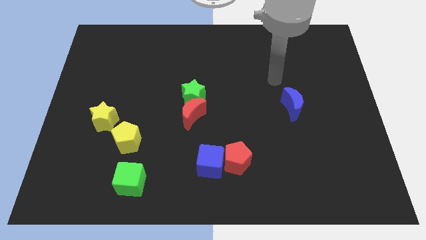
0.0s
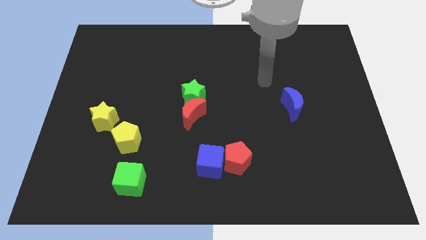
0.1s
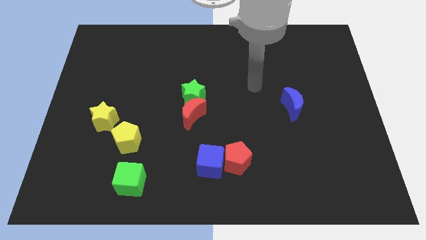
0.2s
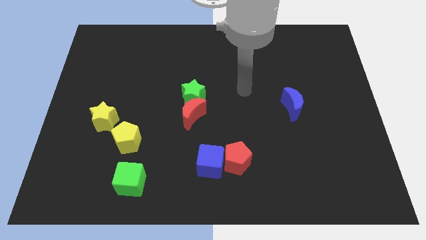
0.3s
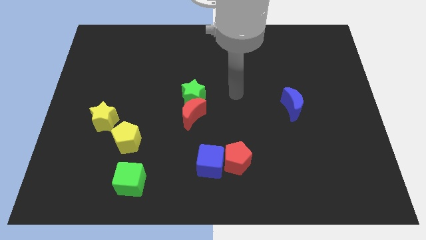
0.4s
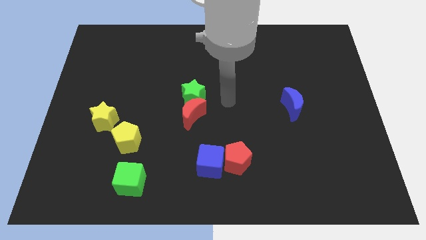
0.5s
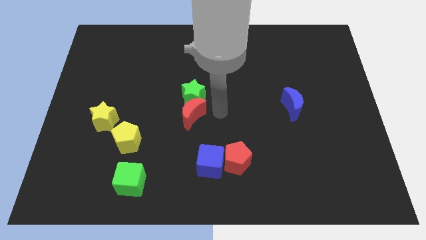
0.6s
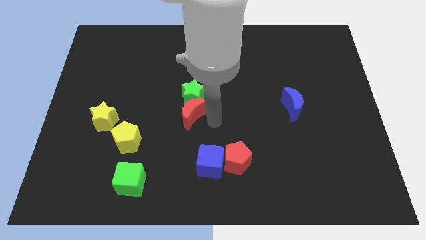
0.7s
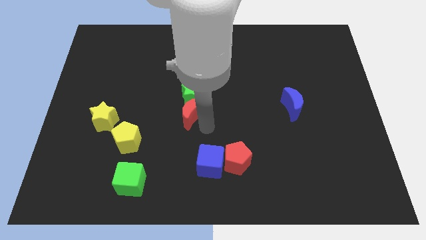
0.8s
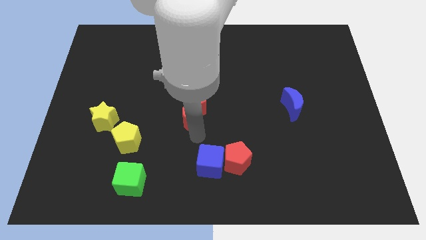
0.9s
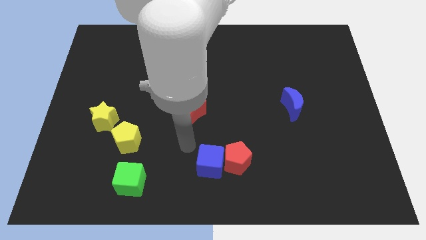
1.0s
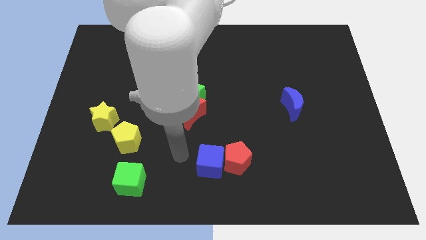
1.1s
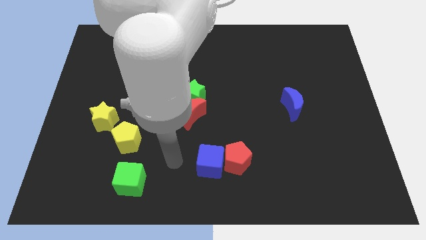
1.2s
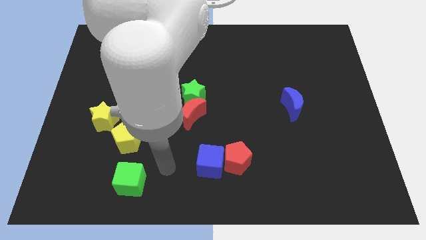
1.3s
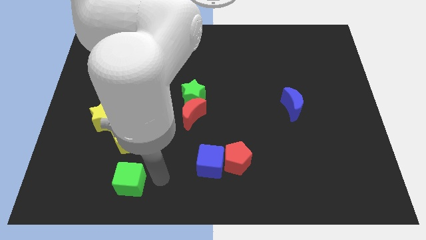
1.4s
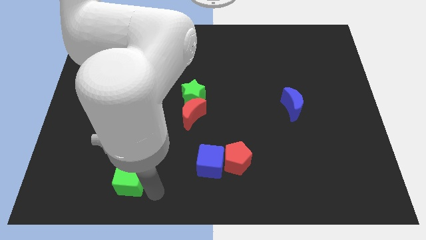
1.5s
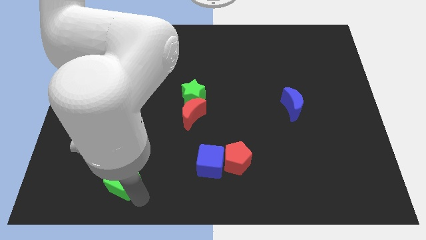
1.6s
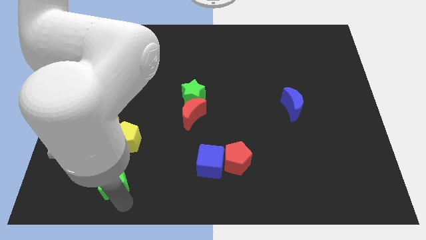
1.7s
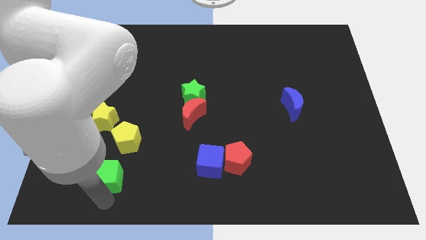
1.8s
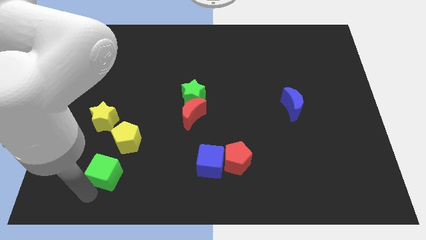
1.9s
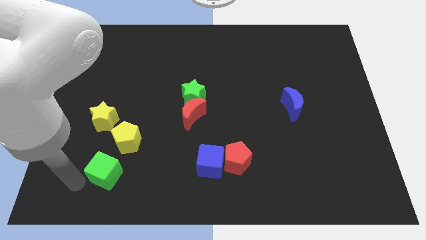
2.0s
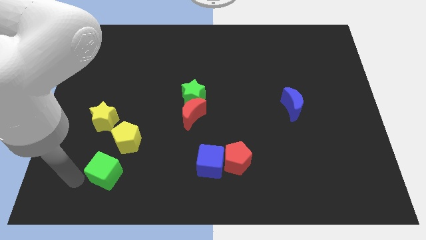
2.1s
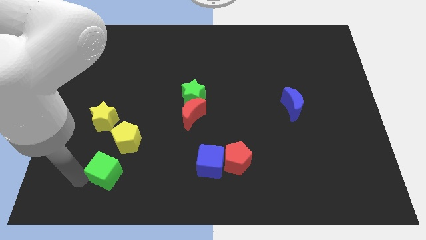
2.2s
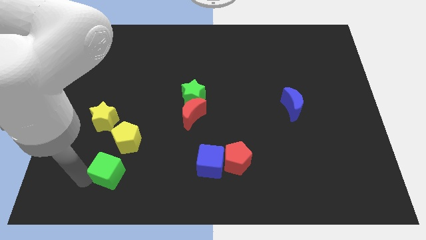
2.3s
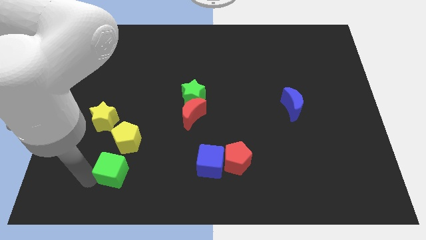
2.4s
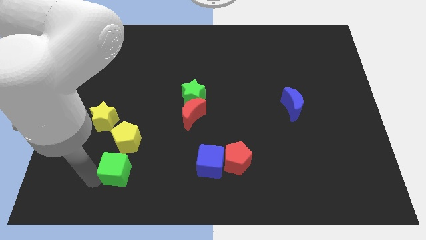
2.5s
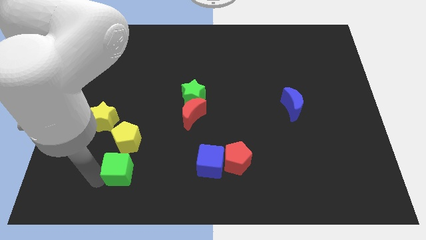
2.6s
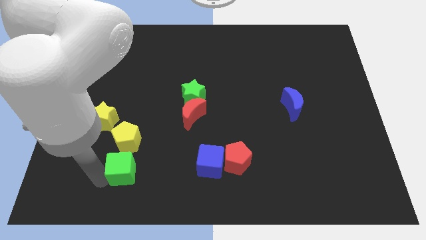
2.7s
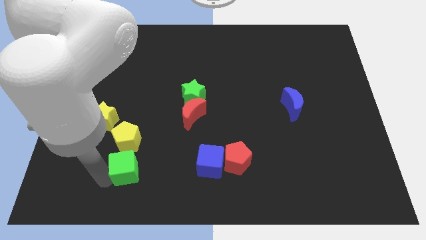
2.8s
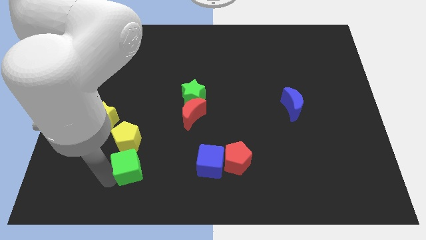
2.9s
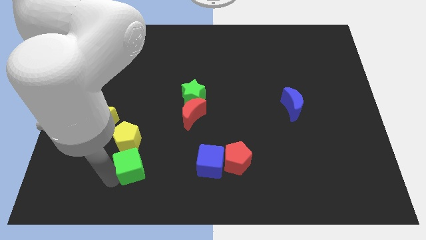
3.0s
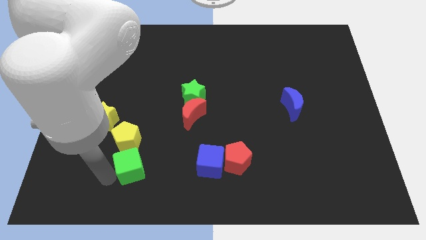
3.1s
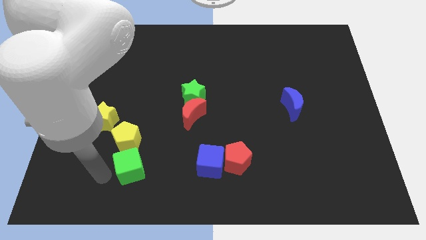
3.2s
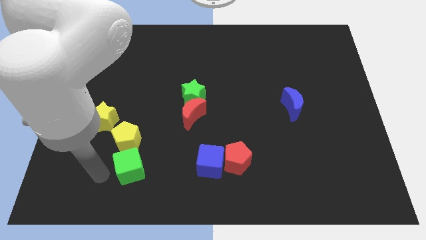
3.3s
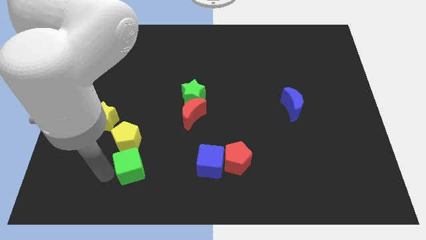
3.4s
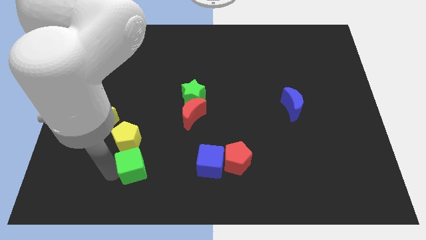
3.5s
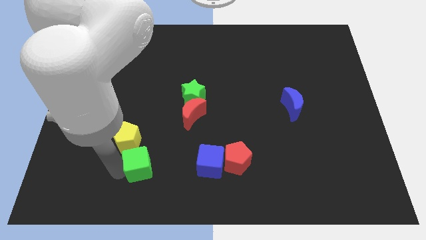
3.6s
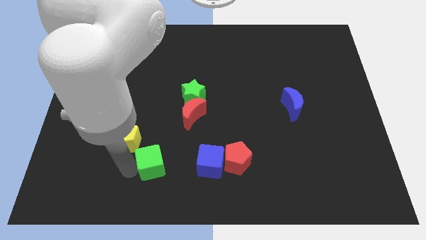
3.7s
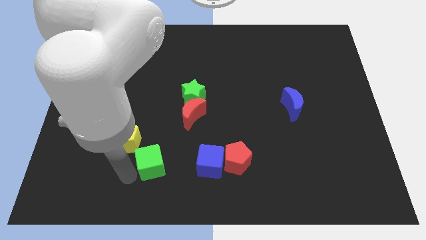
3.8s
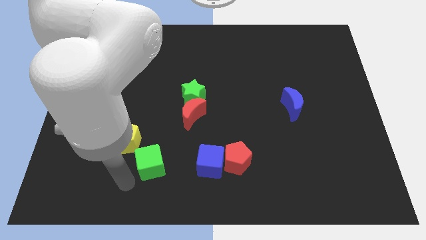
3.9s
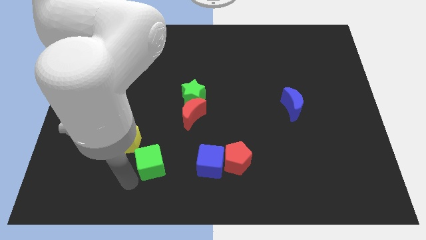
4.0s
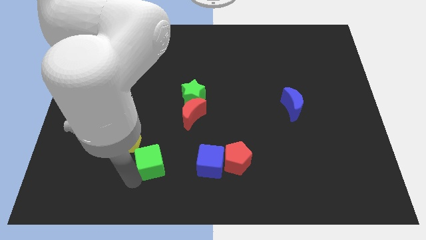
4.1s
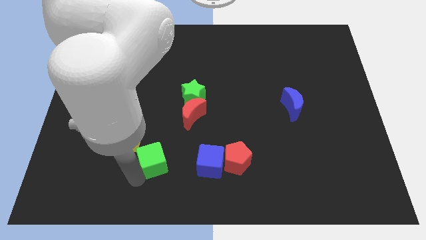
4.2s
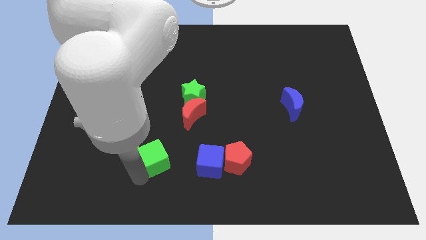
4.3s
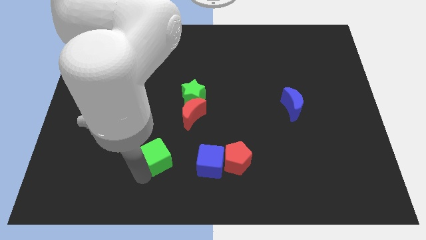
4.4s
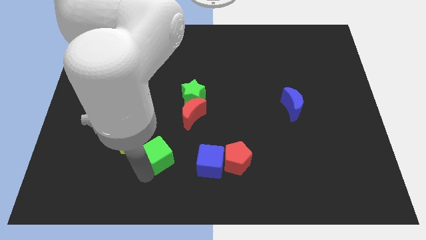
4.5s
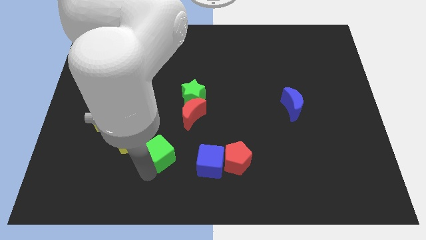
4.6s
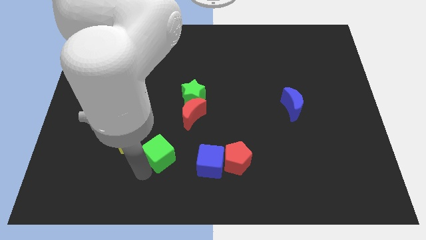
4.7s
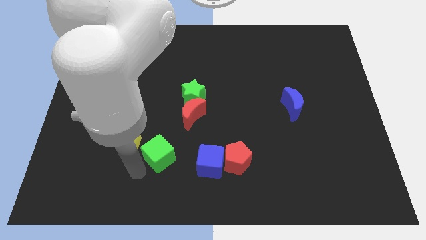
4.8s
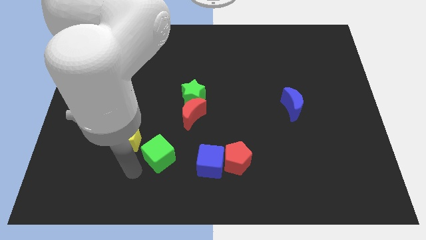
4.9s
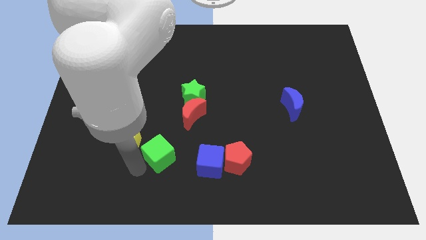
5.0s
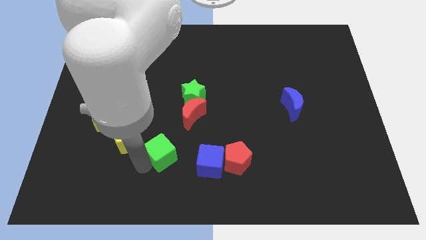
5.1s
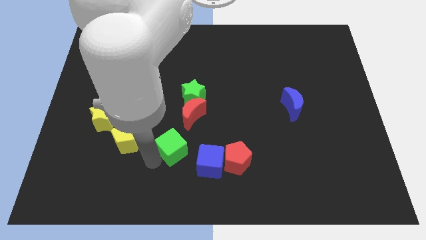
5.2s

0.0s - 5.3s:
slide the green cube to the bottom side of the green star

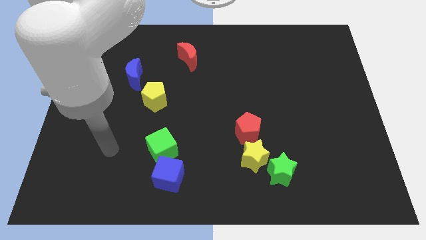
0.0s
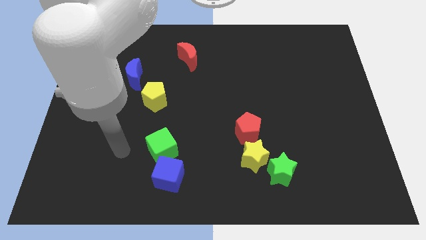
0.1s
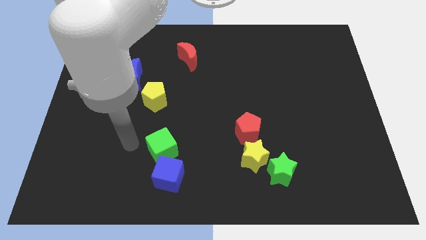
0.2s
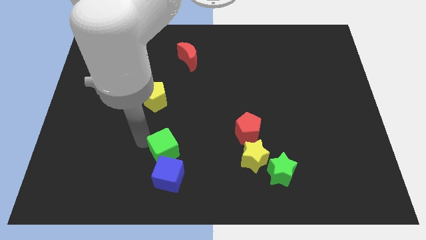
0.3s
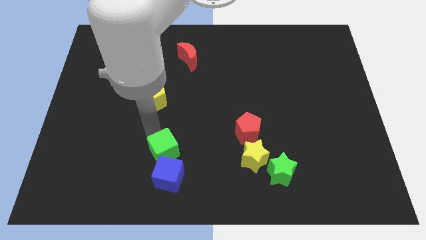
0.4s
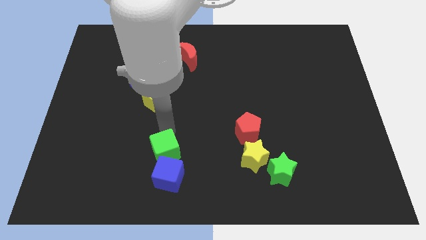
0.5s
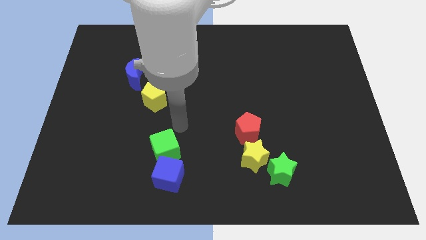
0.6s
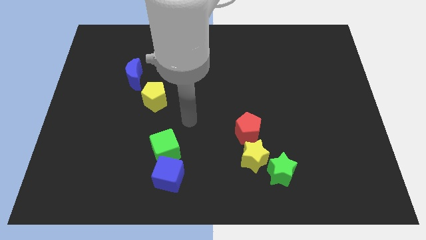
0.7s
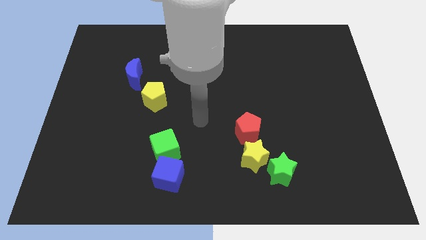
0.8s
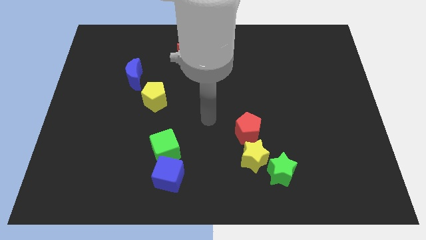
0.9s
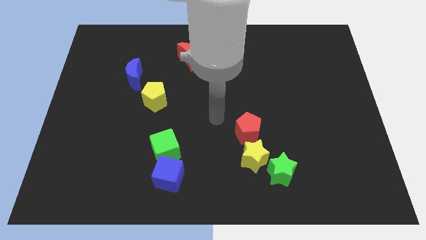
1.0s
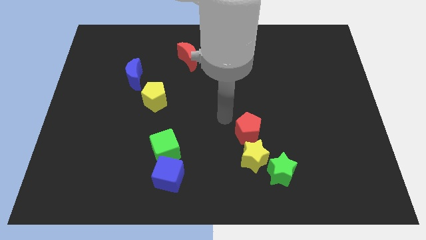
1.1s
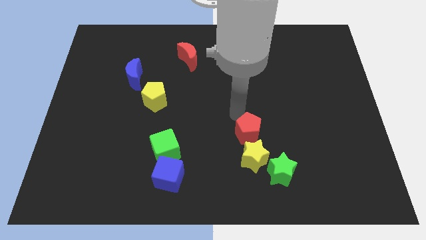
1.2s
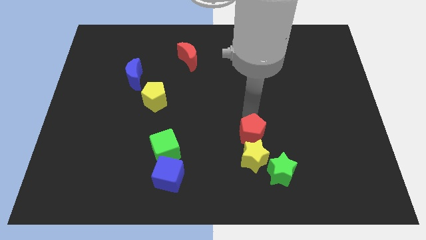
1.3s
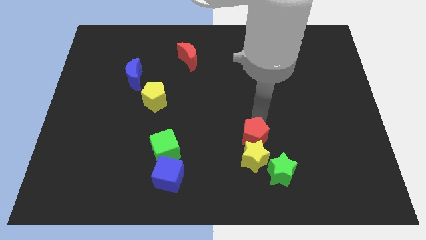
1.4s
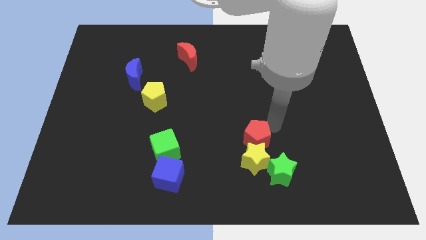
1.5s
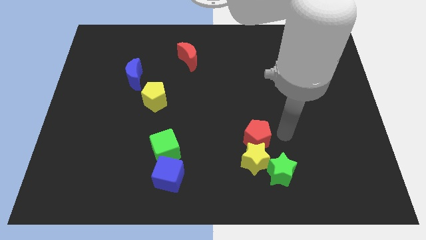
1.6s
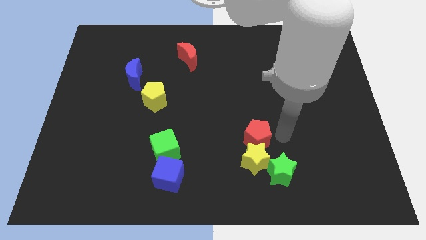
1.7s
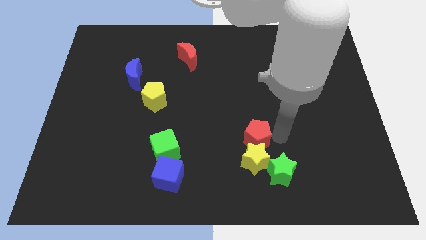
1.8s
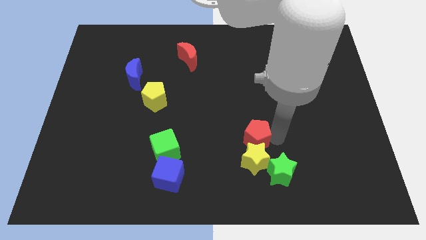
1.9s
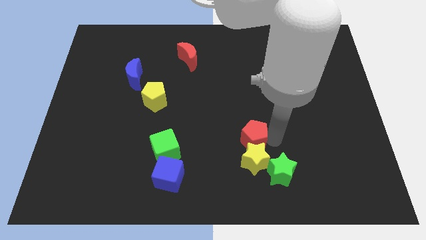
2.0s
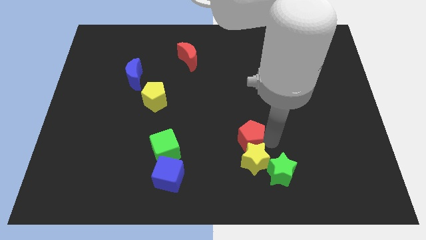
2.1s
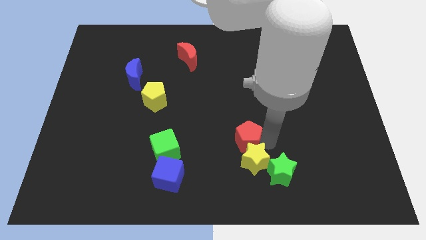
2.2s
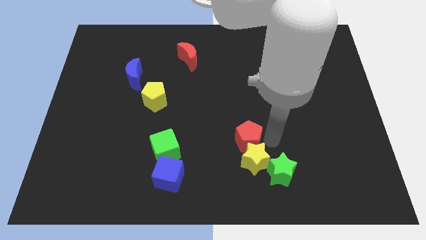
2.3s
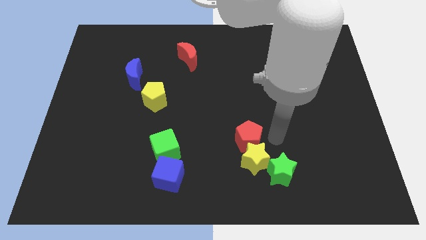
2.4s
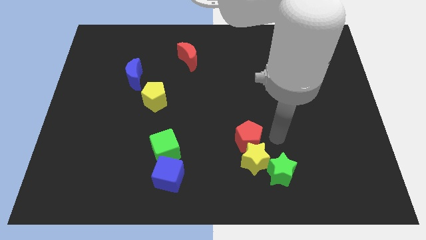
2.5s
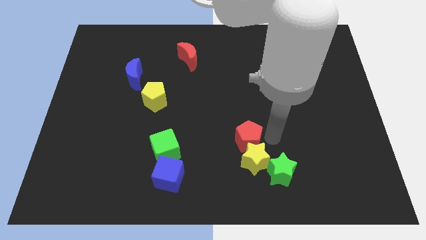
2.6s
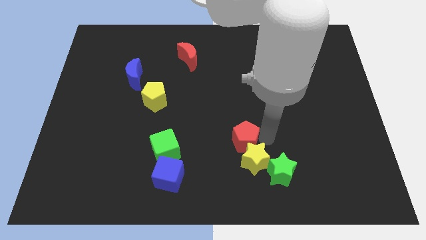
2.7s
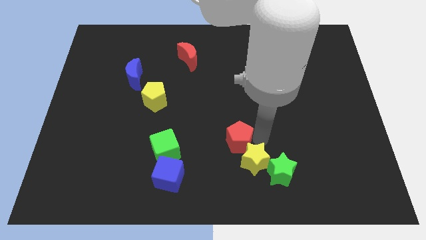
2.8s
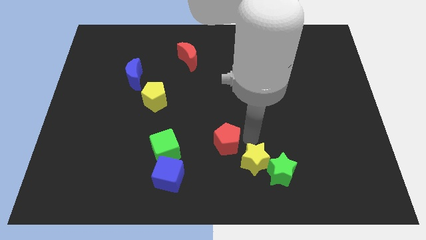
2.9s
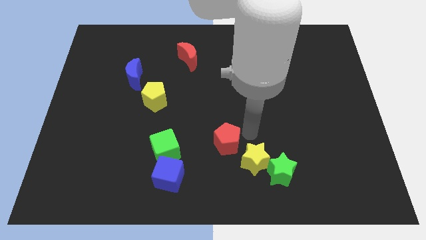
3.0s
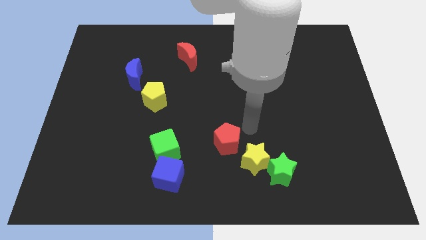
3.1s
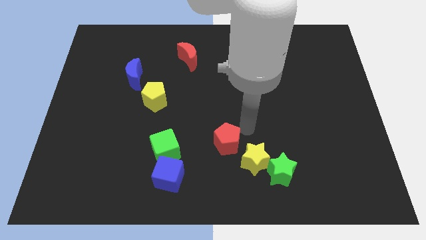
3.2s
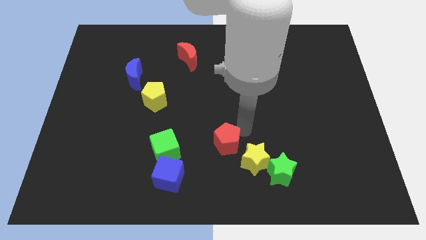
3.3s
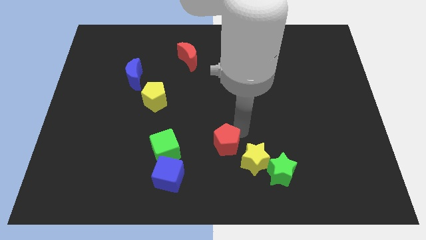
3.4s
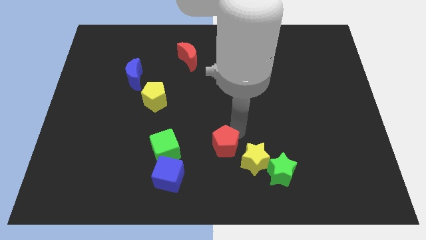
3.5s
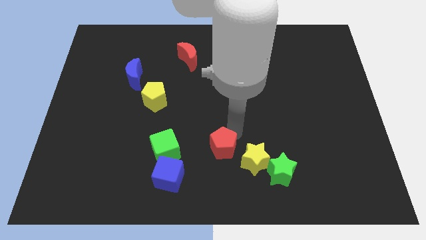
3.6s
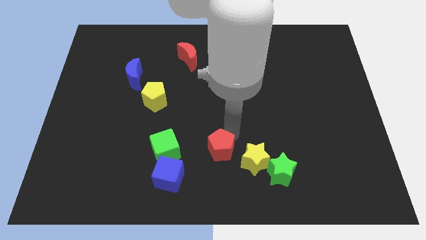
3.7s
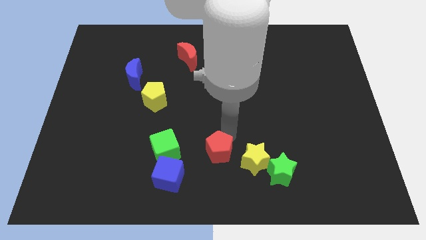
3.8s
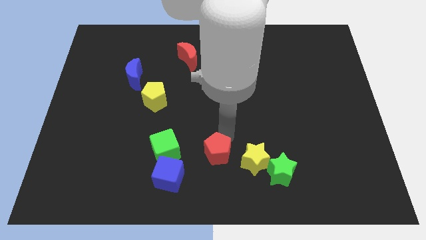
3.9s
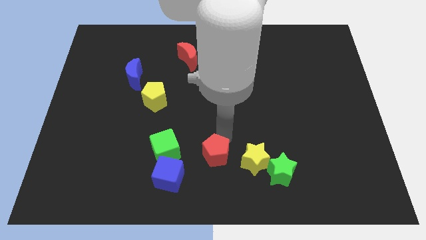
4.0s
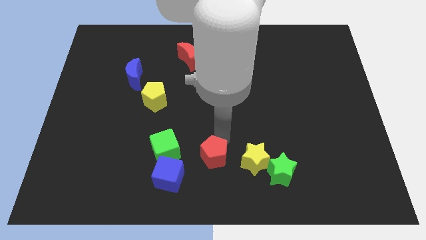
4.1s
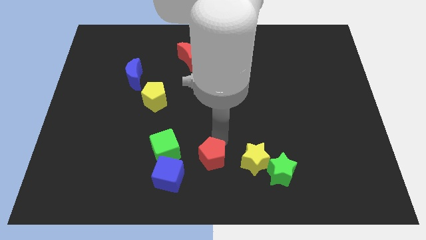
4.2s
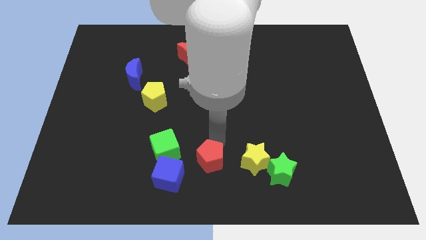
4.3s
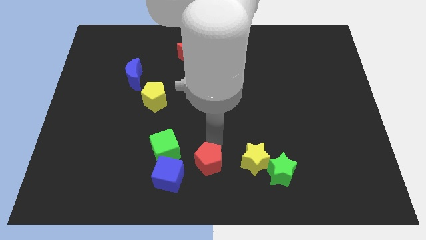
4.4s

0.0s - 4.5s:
move the red pentagon to the bottom right side of the green cube
